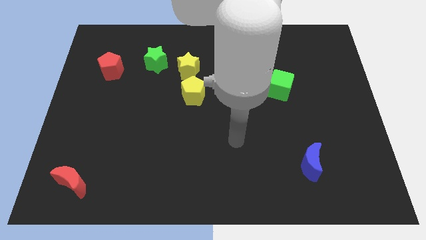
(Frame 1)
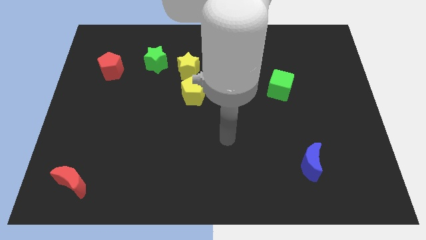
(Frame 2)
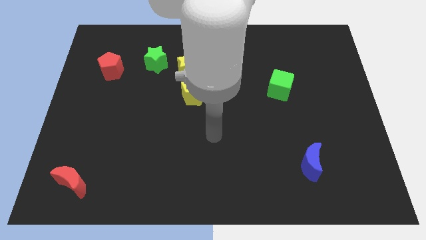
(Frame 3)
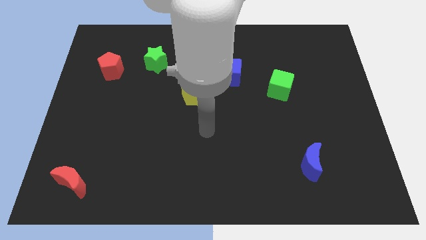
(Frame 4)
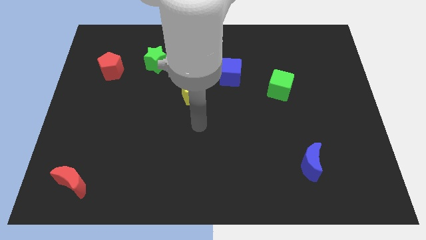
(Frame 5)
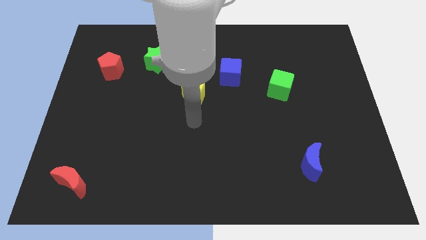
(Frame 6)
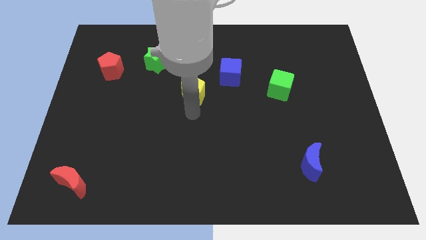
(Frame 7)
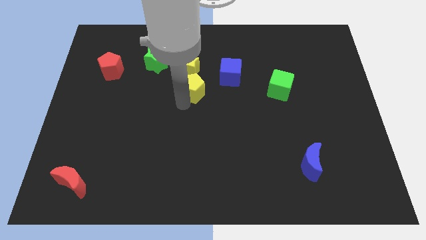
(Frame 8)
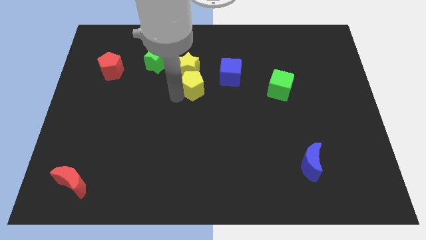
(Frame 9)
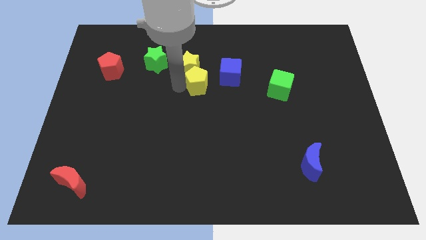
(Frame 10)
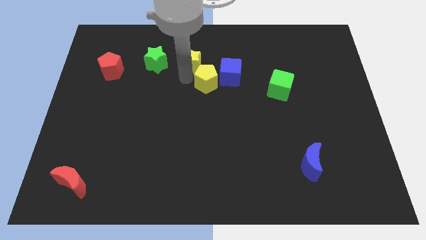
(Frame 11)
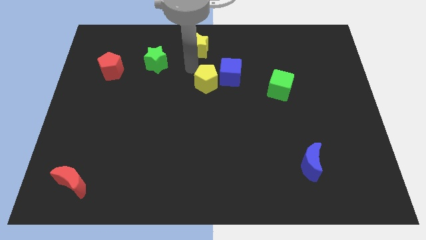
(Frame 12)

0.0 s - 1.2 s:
pull the yellow pentagon apart from the yellow star

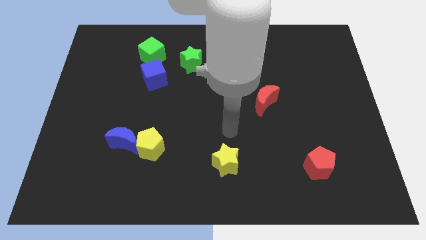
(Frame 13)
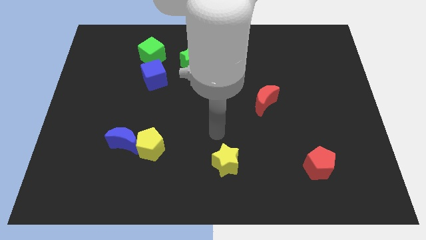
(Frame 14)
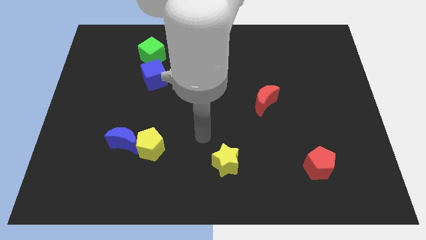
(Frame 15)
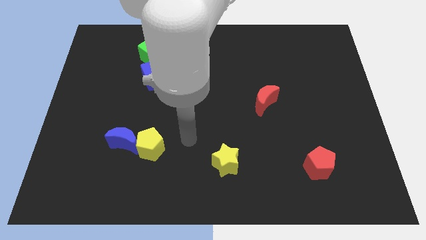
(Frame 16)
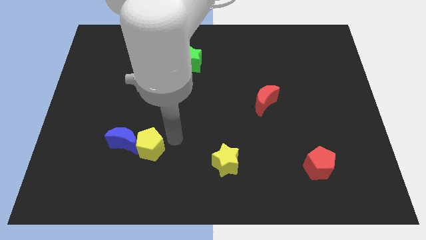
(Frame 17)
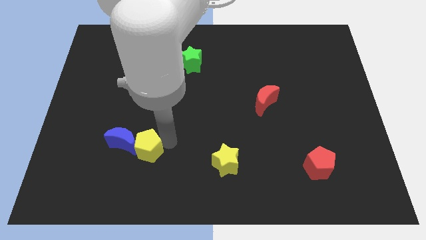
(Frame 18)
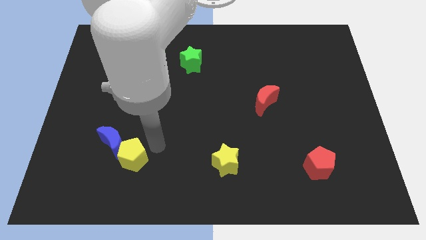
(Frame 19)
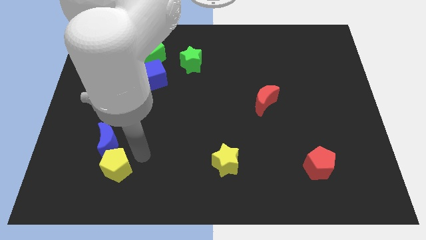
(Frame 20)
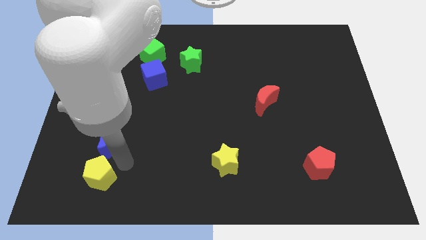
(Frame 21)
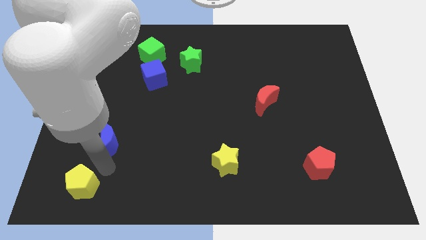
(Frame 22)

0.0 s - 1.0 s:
move the blue moon away from the yellow pentagon

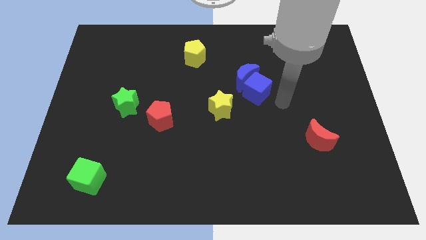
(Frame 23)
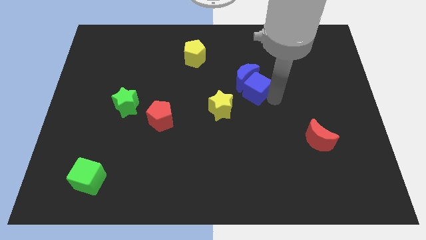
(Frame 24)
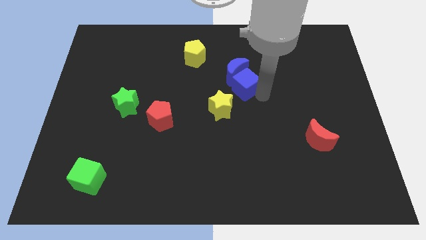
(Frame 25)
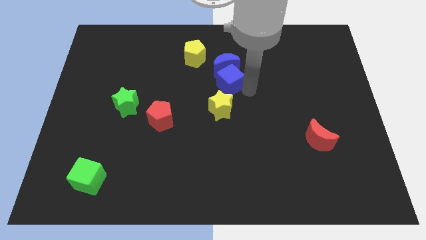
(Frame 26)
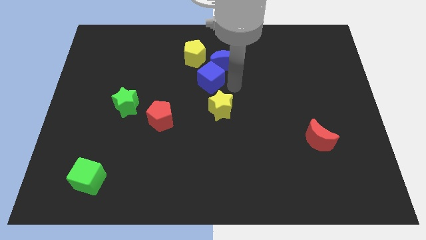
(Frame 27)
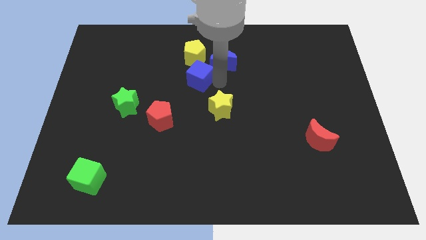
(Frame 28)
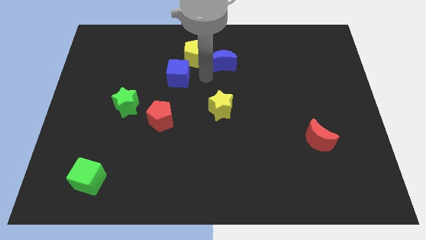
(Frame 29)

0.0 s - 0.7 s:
separate the blue moon from the blue cube

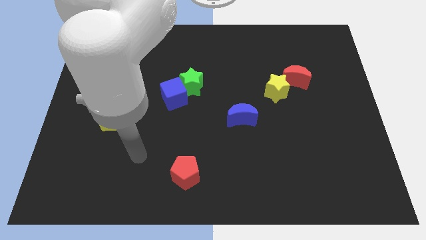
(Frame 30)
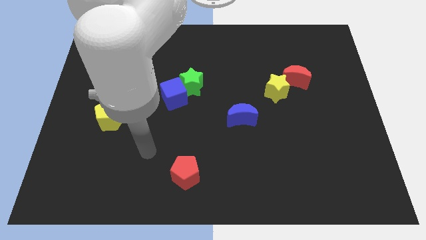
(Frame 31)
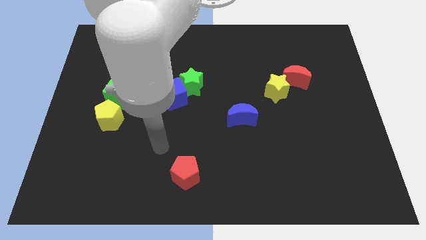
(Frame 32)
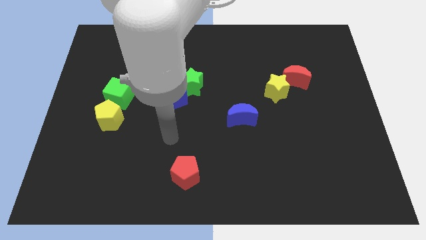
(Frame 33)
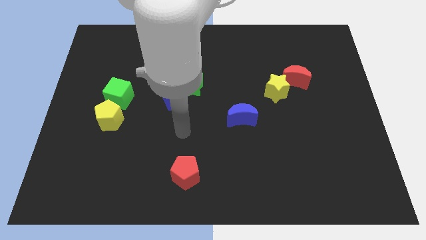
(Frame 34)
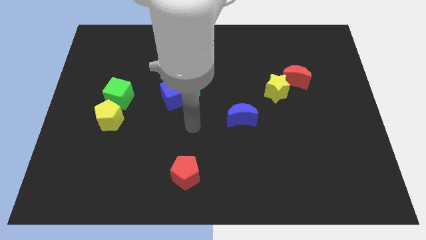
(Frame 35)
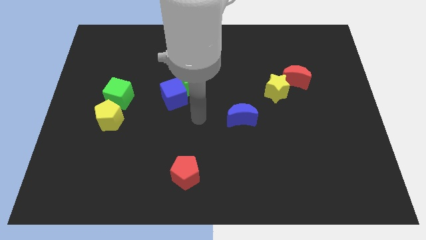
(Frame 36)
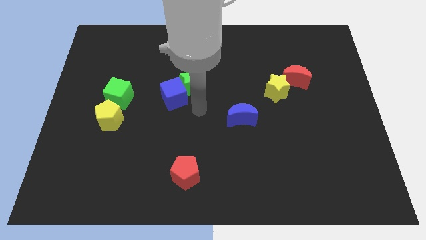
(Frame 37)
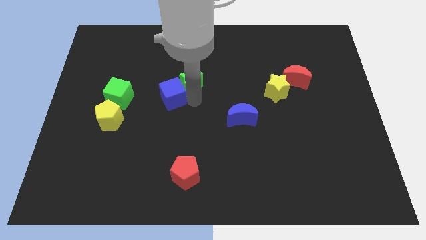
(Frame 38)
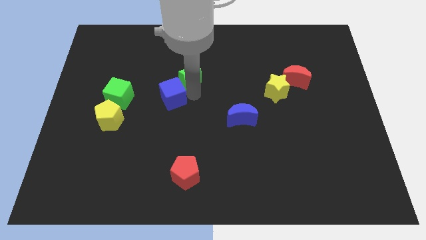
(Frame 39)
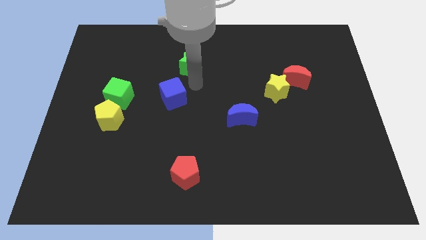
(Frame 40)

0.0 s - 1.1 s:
separate the blue cube from the green star

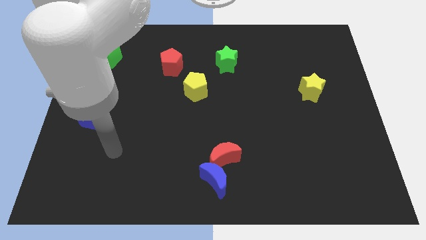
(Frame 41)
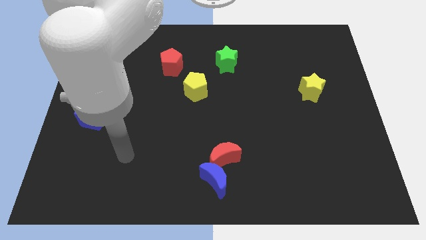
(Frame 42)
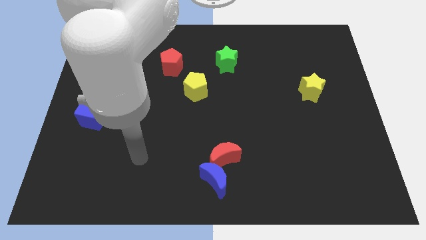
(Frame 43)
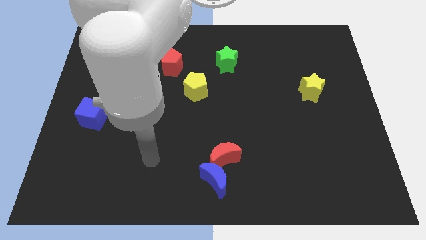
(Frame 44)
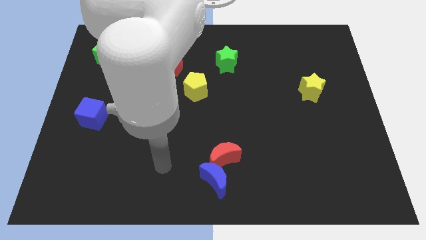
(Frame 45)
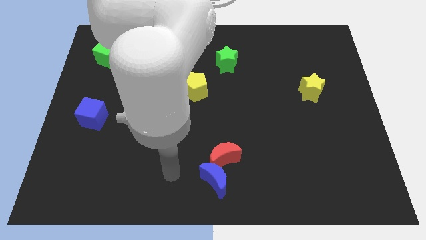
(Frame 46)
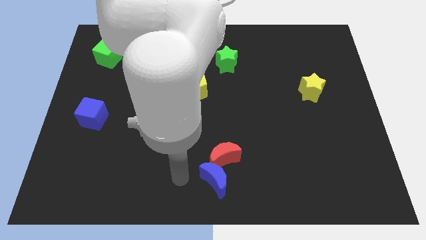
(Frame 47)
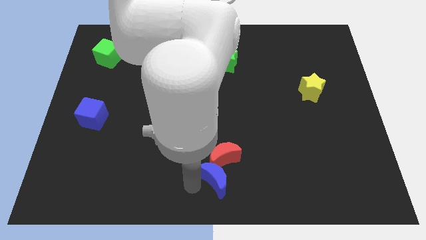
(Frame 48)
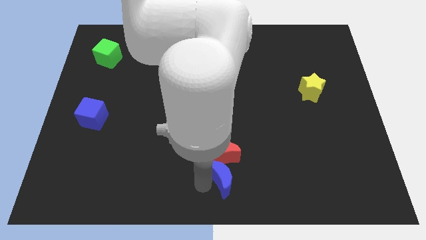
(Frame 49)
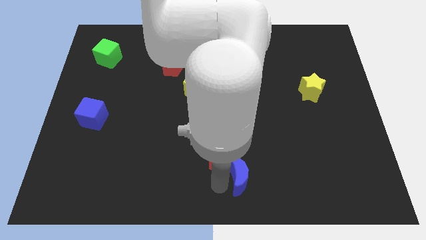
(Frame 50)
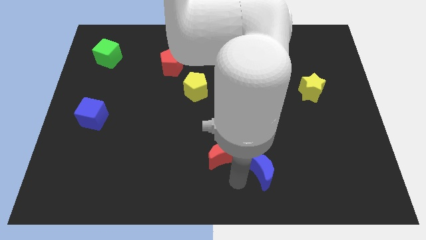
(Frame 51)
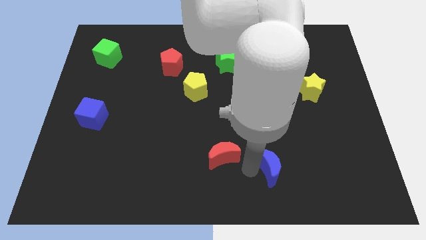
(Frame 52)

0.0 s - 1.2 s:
pull the red moon apart from the blue moon

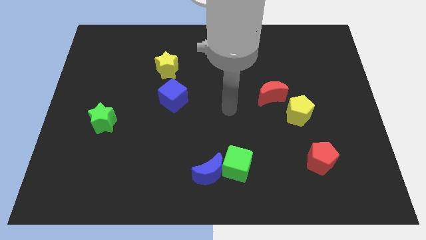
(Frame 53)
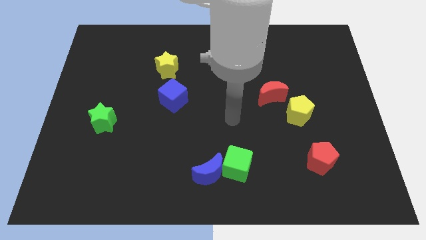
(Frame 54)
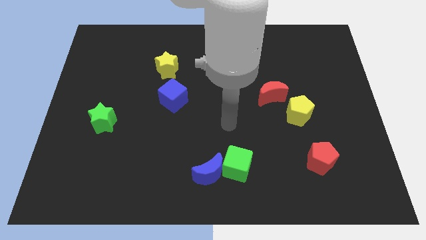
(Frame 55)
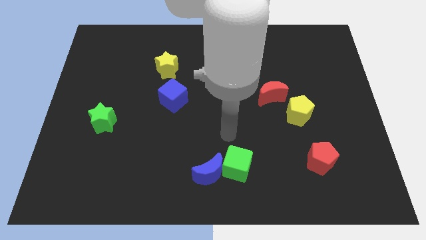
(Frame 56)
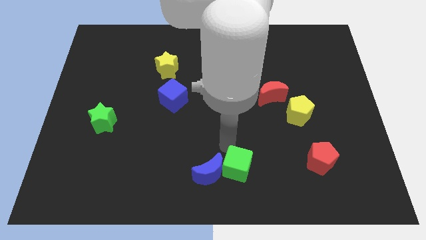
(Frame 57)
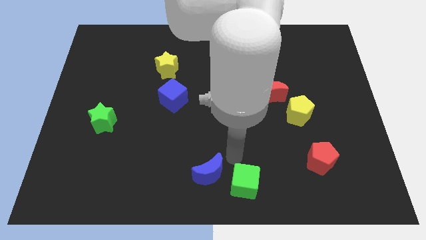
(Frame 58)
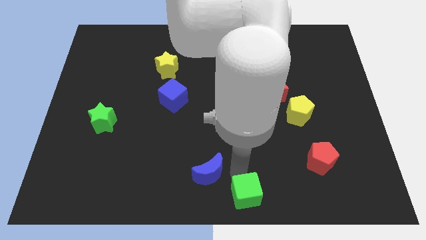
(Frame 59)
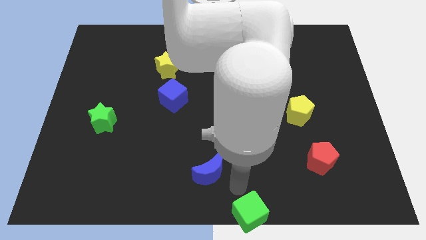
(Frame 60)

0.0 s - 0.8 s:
pull the blue moon apart from the green cube

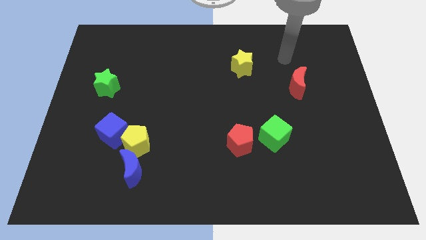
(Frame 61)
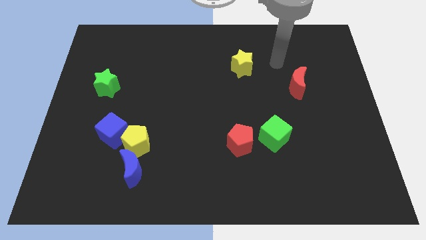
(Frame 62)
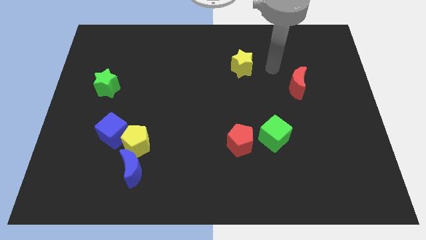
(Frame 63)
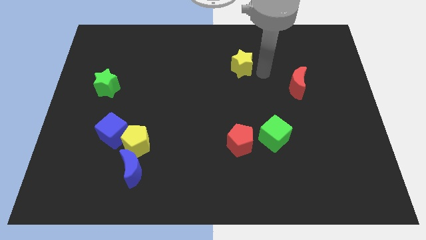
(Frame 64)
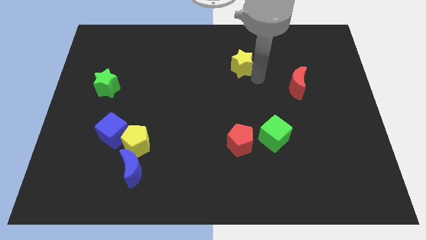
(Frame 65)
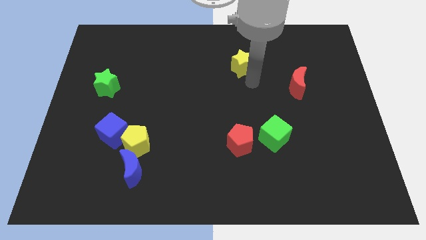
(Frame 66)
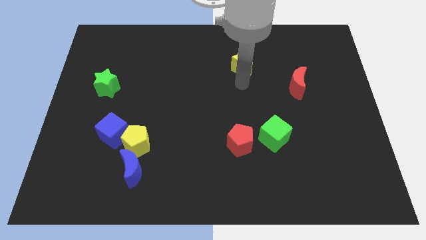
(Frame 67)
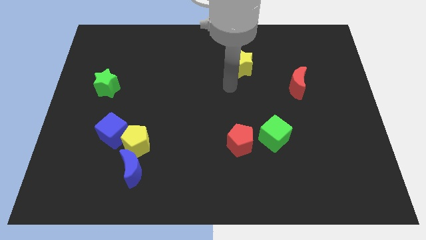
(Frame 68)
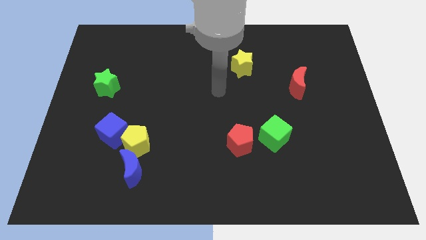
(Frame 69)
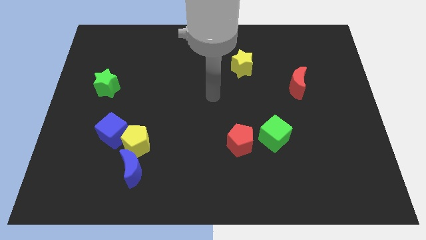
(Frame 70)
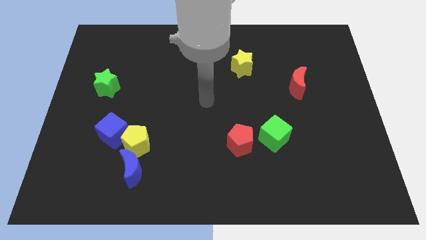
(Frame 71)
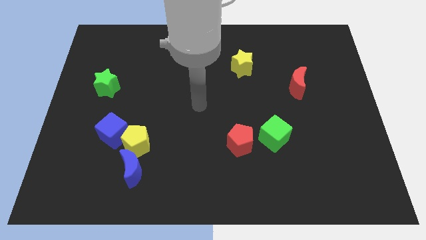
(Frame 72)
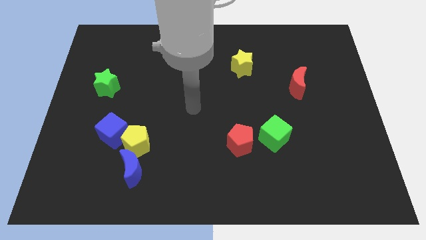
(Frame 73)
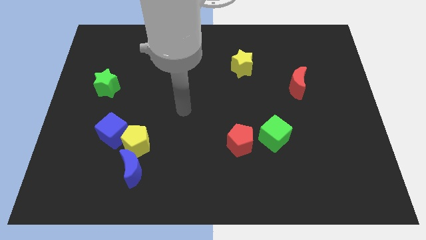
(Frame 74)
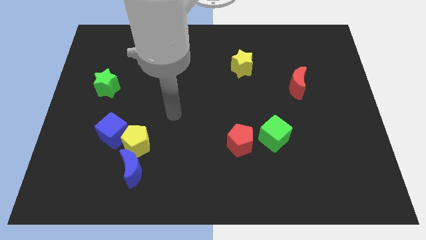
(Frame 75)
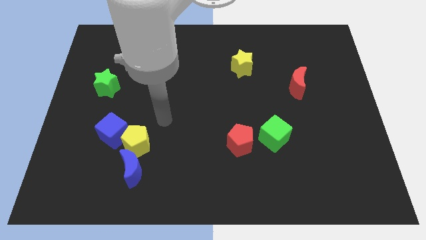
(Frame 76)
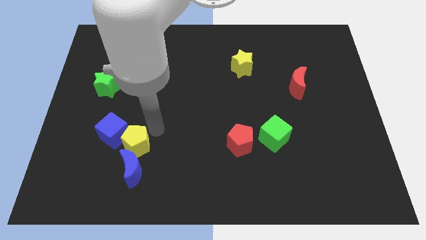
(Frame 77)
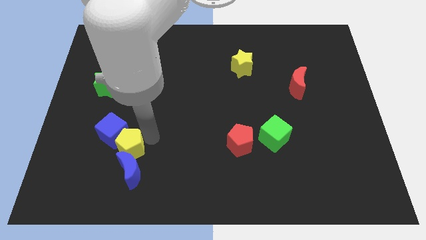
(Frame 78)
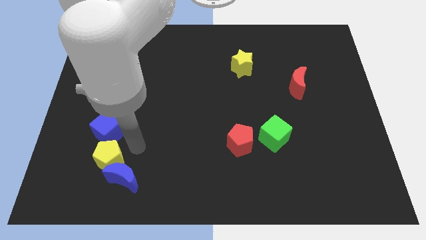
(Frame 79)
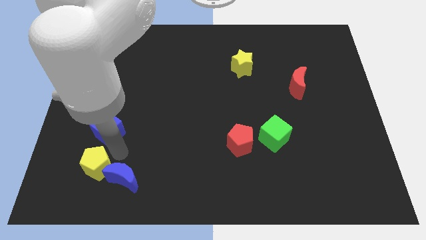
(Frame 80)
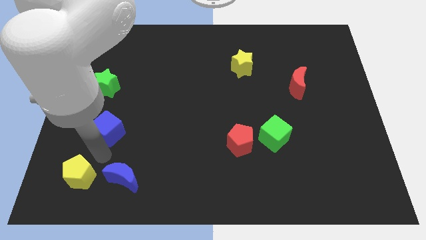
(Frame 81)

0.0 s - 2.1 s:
move the blue cube away from the yellow pentagon

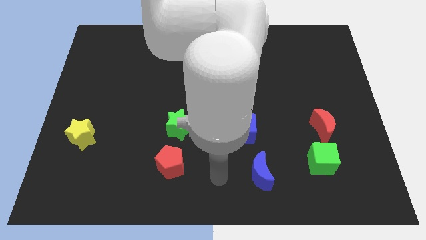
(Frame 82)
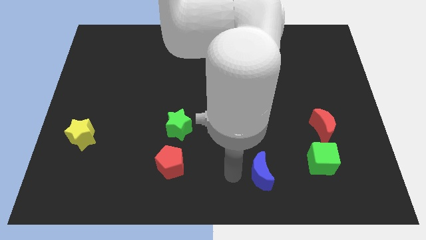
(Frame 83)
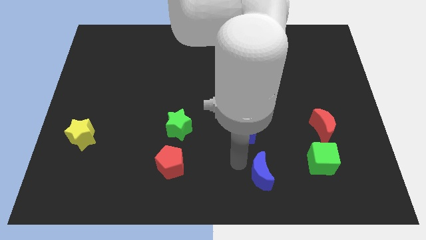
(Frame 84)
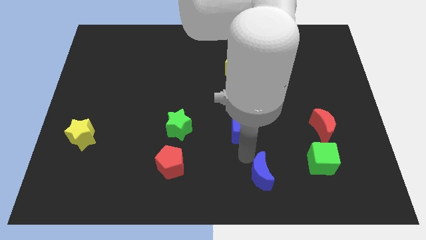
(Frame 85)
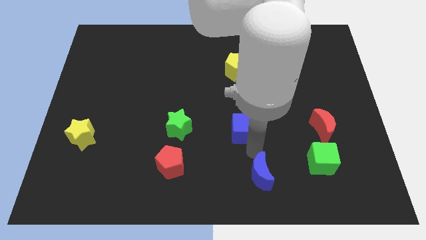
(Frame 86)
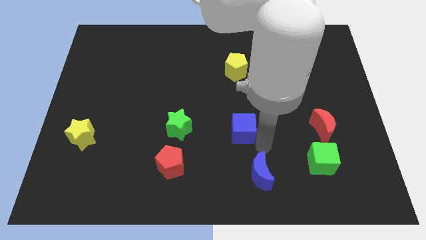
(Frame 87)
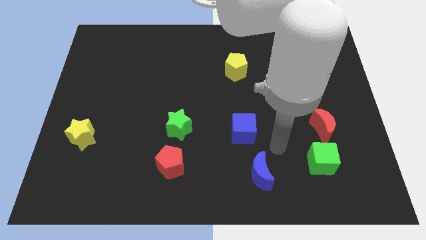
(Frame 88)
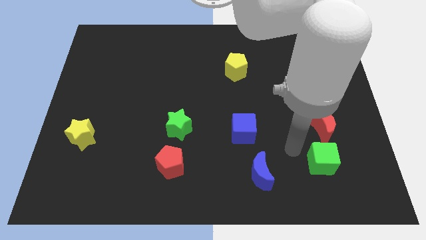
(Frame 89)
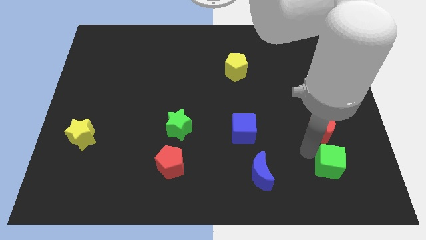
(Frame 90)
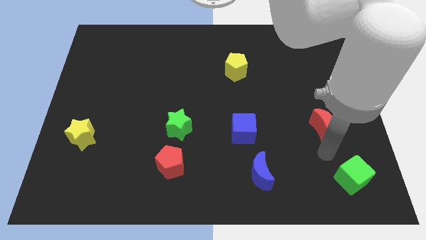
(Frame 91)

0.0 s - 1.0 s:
move the red moon away from the green cube

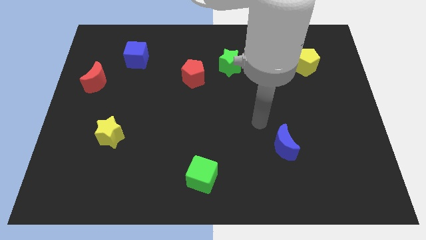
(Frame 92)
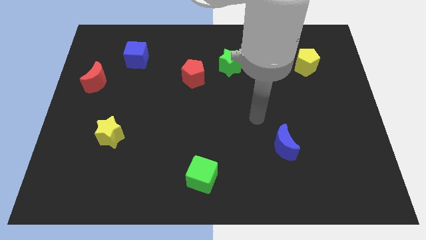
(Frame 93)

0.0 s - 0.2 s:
pull the red pentagon apart from the green star

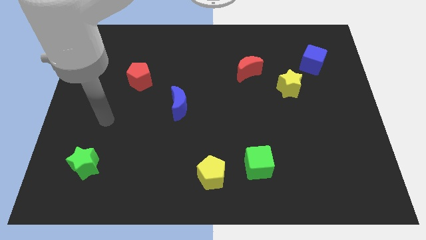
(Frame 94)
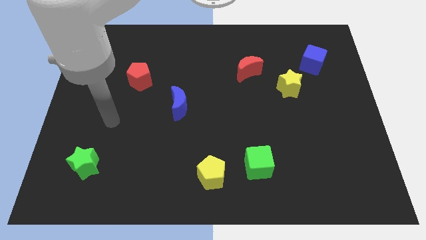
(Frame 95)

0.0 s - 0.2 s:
move the green cube away from the yellow pentagon
